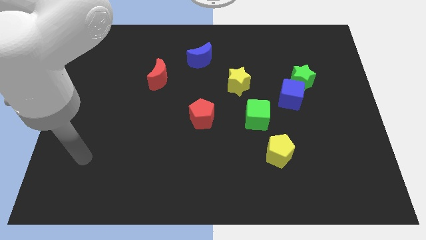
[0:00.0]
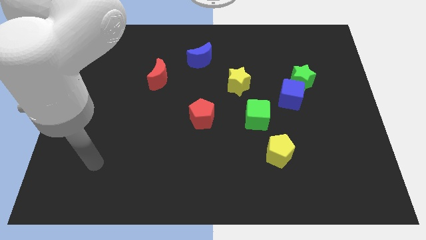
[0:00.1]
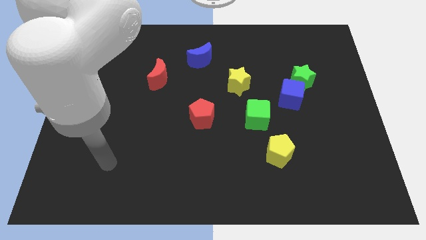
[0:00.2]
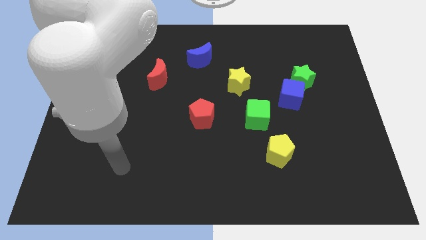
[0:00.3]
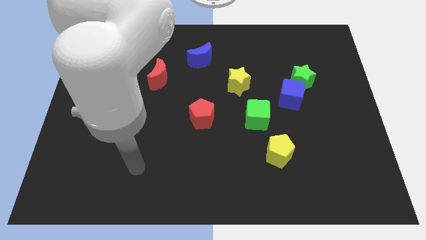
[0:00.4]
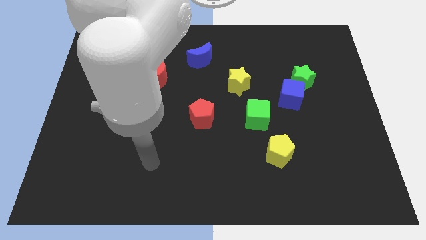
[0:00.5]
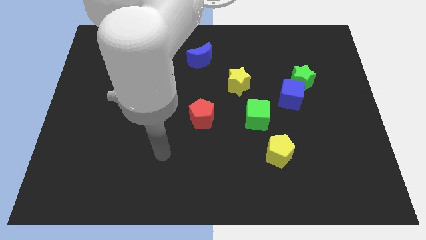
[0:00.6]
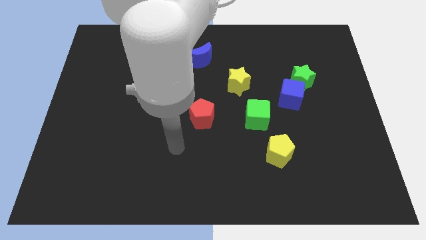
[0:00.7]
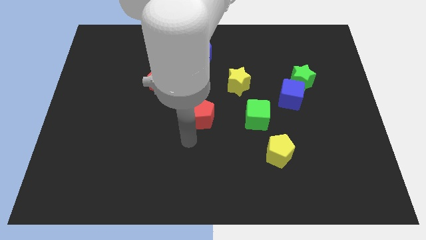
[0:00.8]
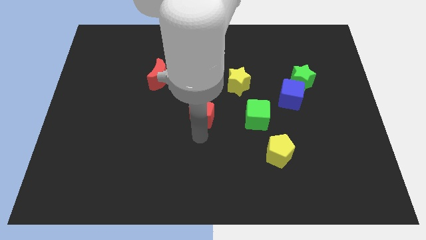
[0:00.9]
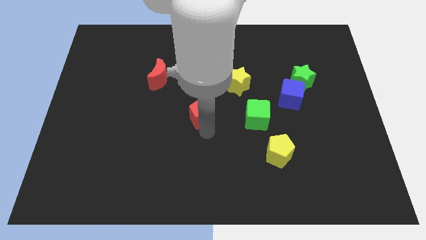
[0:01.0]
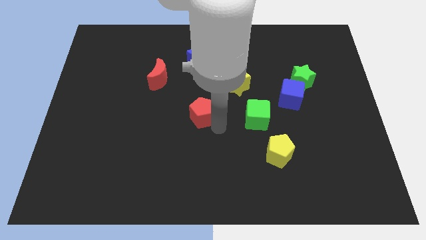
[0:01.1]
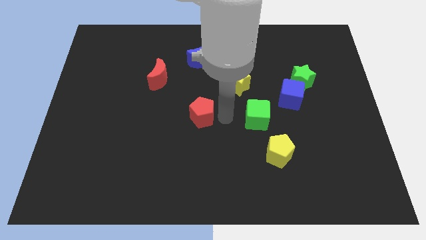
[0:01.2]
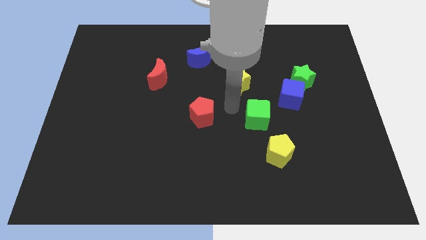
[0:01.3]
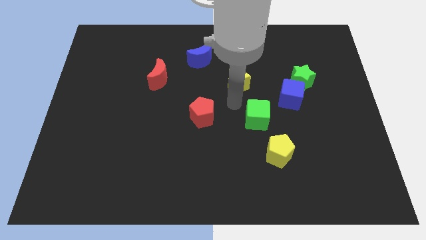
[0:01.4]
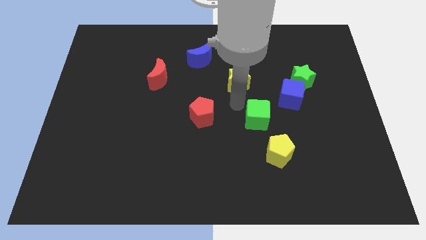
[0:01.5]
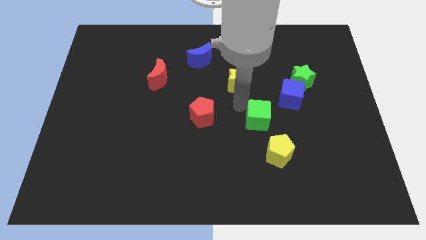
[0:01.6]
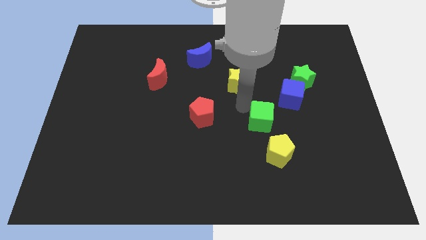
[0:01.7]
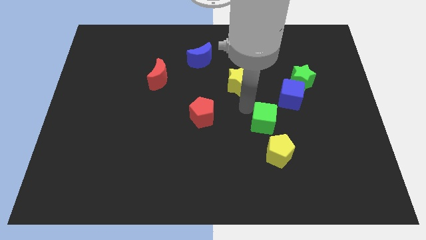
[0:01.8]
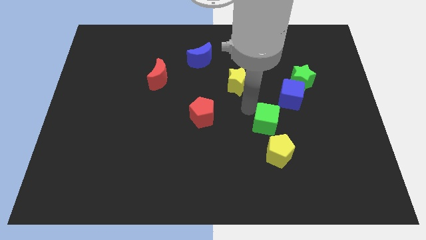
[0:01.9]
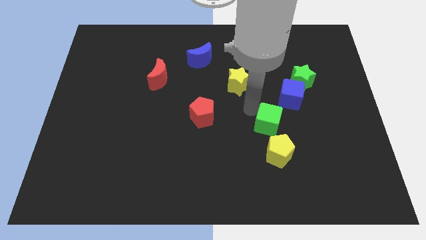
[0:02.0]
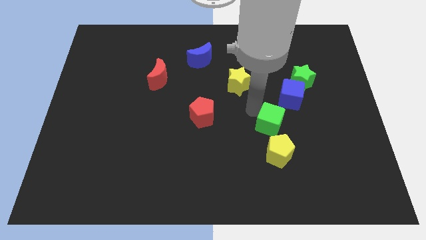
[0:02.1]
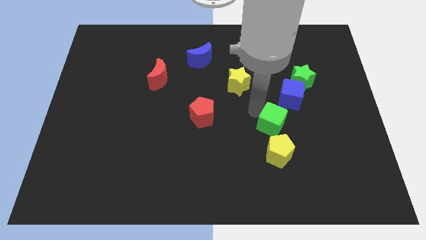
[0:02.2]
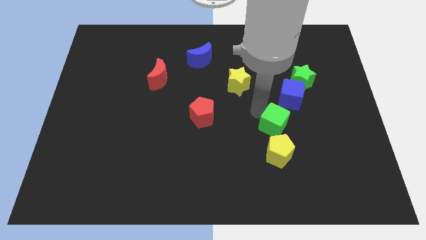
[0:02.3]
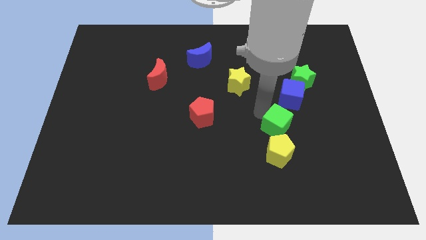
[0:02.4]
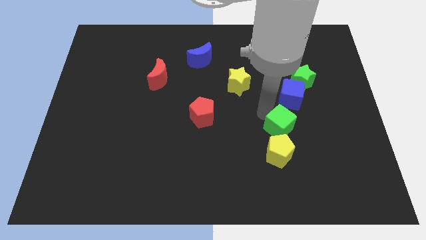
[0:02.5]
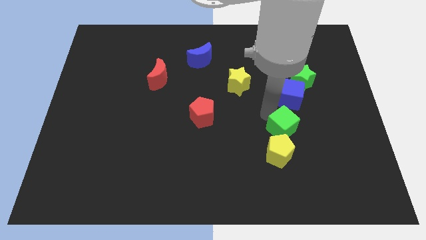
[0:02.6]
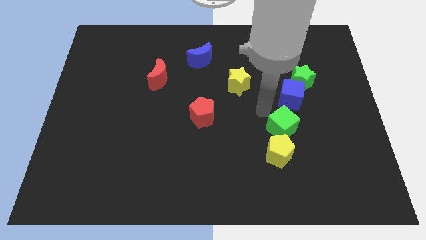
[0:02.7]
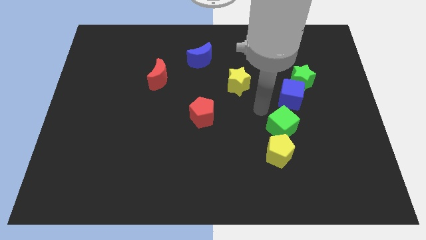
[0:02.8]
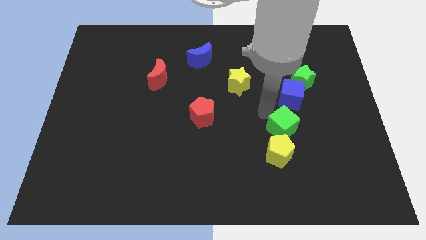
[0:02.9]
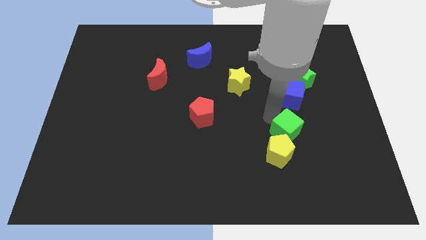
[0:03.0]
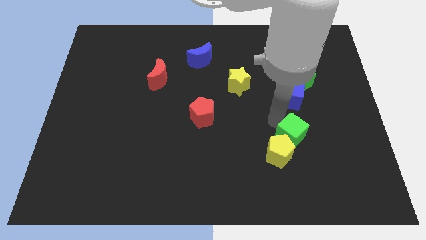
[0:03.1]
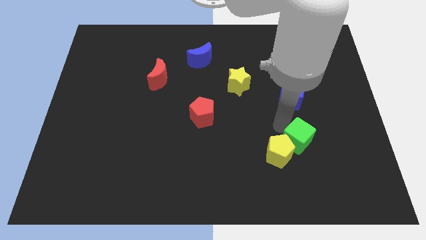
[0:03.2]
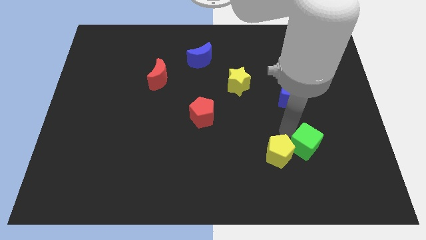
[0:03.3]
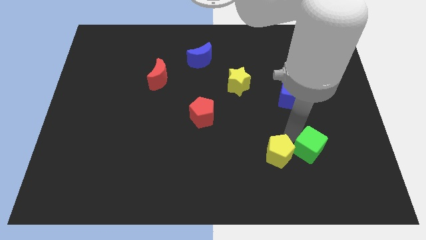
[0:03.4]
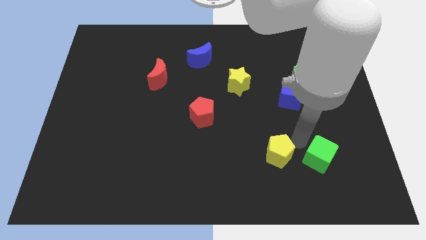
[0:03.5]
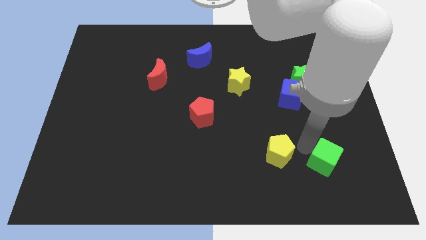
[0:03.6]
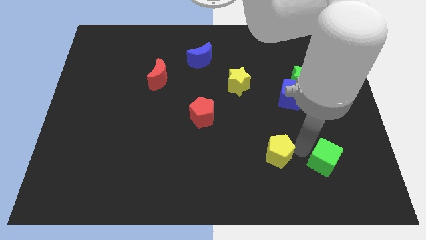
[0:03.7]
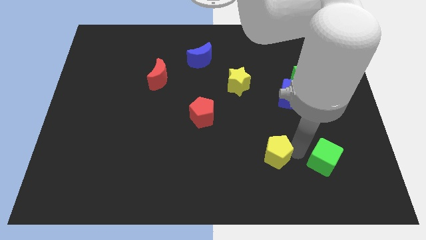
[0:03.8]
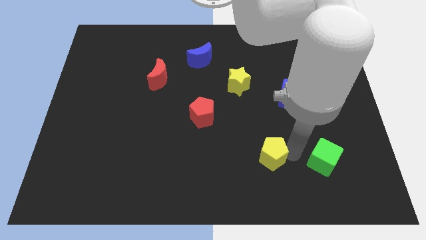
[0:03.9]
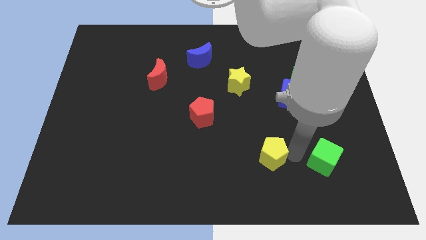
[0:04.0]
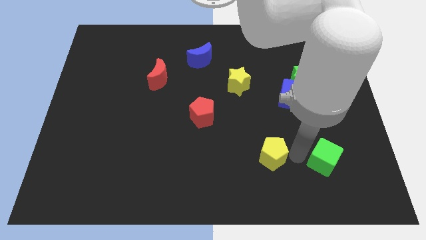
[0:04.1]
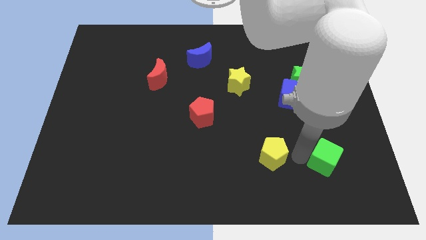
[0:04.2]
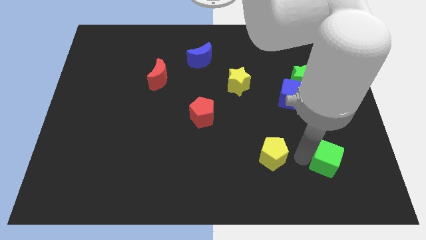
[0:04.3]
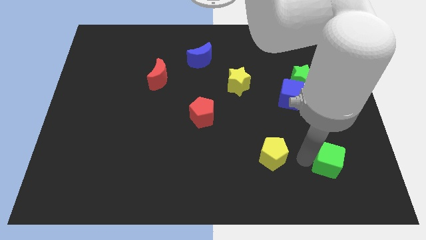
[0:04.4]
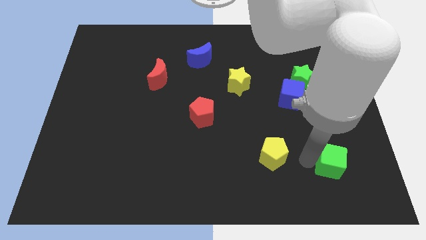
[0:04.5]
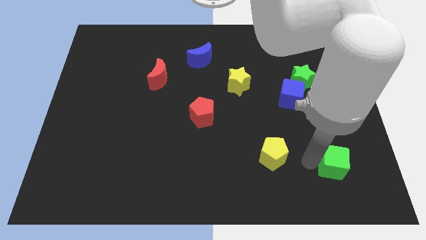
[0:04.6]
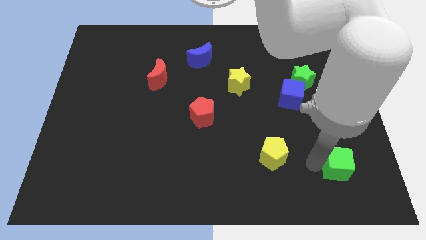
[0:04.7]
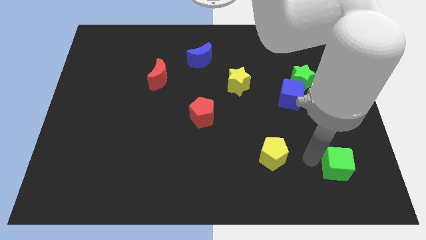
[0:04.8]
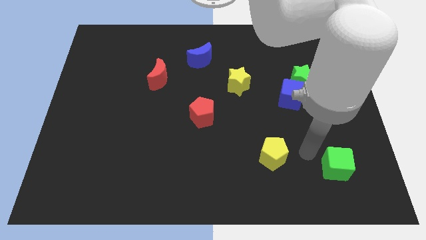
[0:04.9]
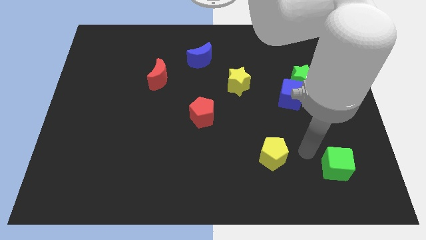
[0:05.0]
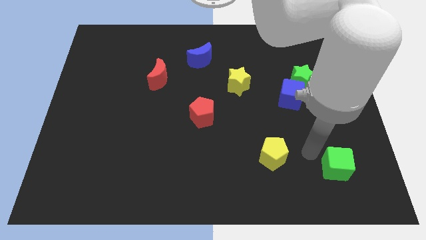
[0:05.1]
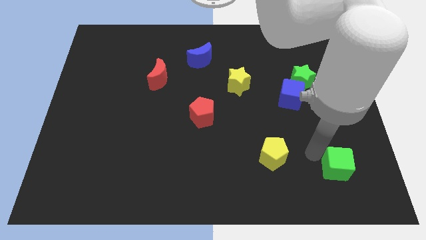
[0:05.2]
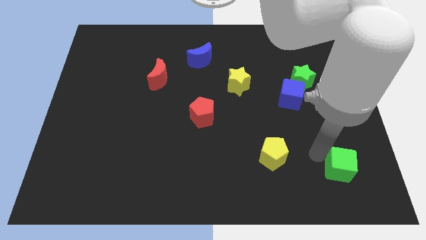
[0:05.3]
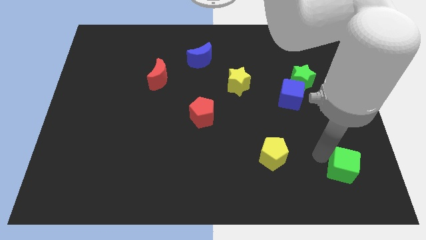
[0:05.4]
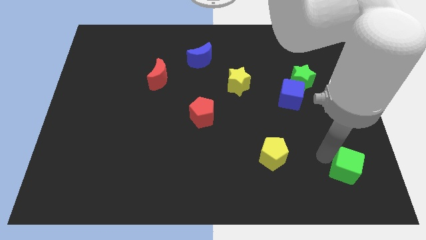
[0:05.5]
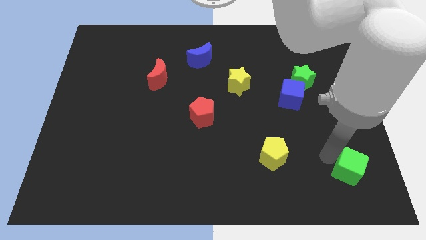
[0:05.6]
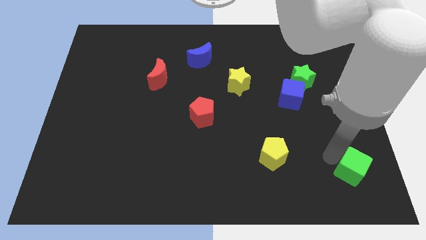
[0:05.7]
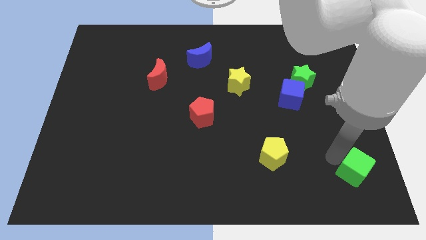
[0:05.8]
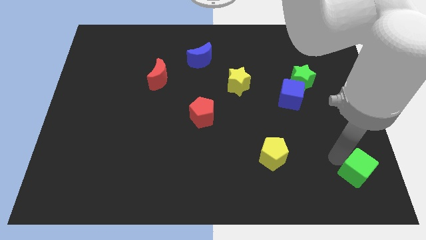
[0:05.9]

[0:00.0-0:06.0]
move the green cube to the bottom right corner

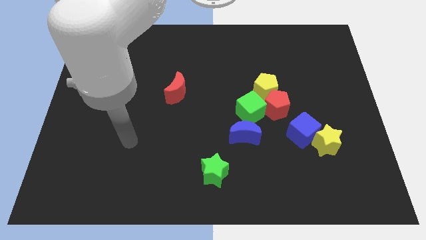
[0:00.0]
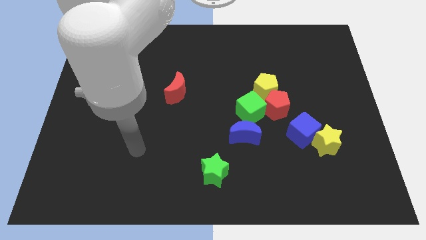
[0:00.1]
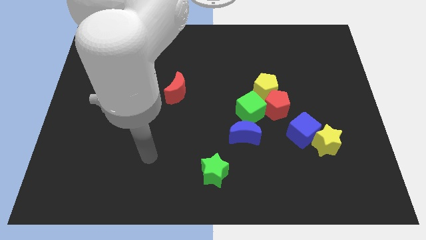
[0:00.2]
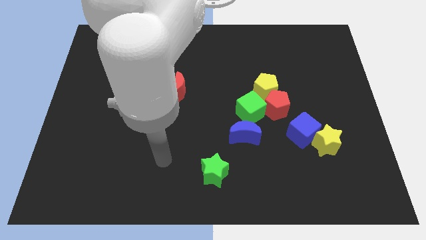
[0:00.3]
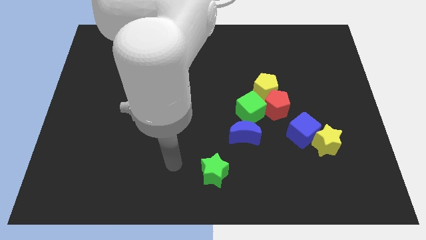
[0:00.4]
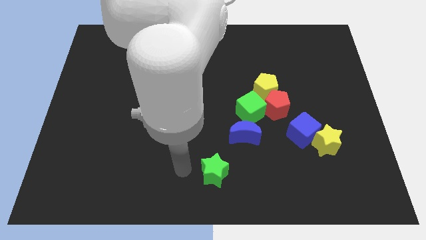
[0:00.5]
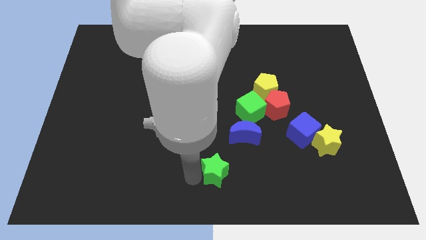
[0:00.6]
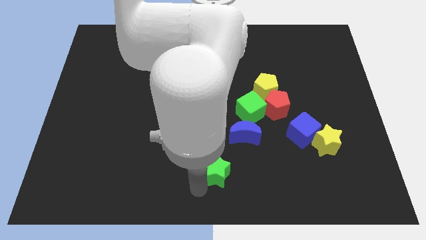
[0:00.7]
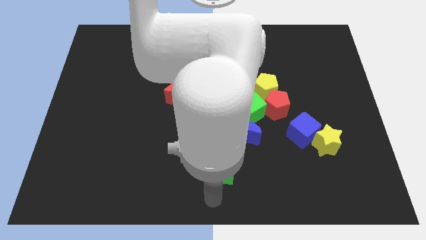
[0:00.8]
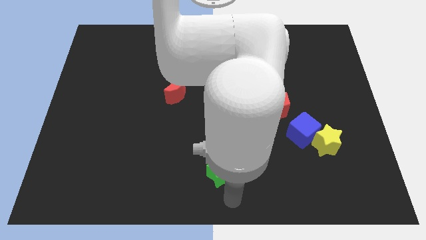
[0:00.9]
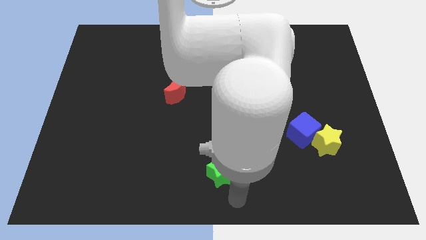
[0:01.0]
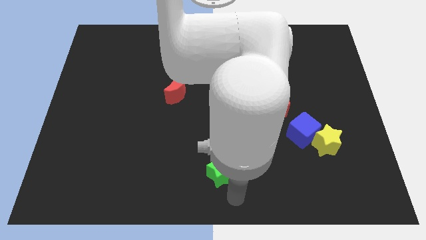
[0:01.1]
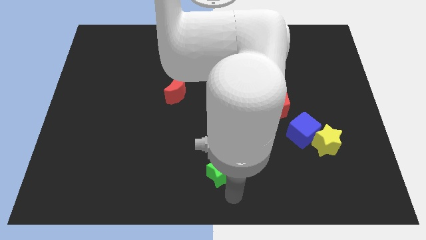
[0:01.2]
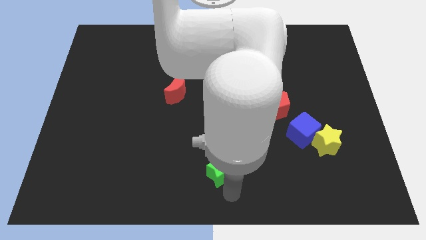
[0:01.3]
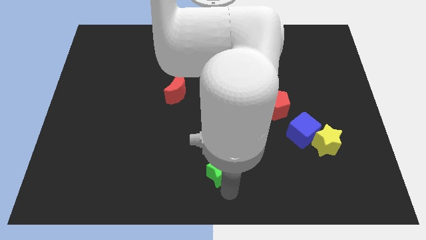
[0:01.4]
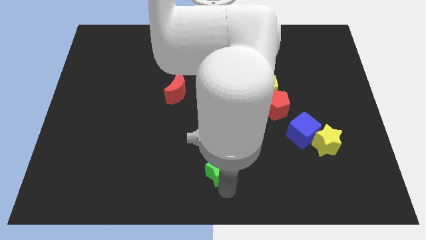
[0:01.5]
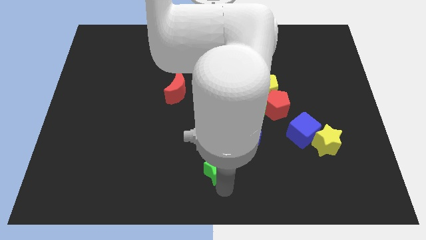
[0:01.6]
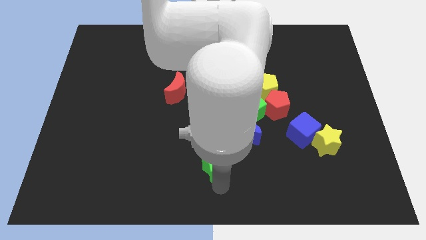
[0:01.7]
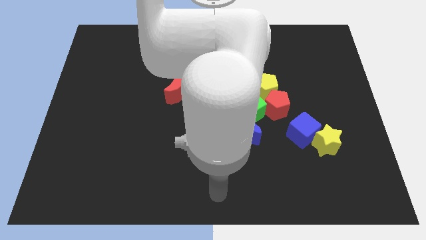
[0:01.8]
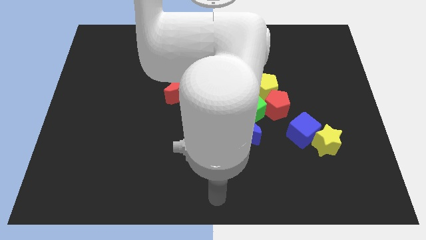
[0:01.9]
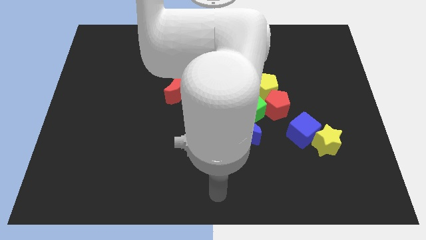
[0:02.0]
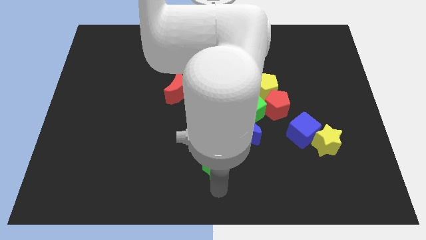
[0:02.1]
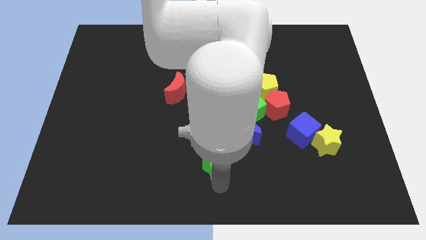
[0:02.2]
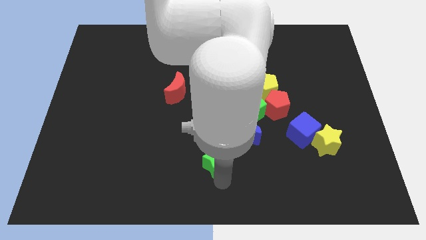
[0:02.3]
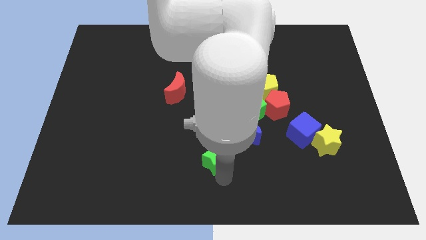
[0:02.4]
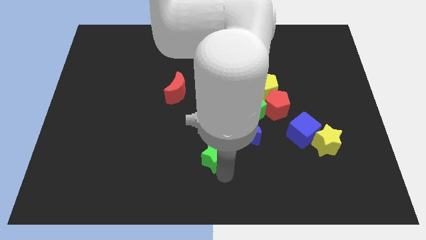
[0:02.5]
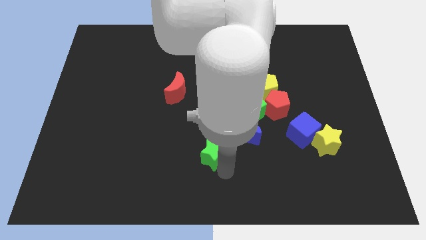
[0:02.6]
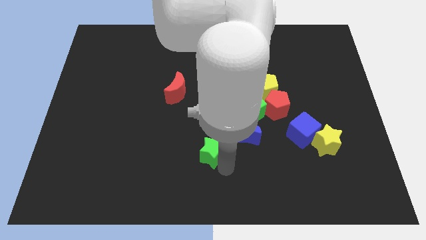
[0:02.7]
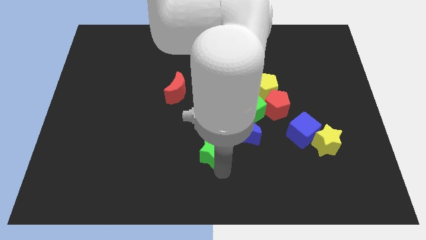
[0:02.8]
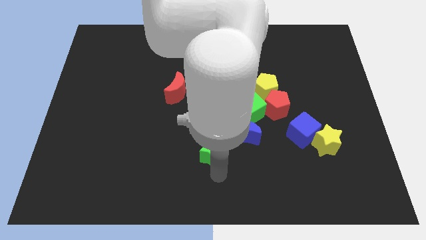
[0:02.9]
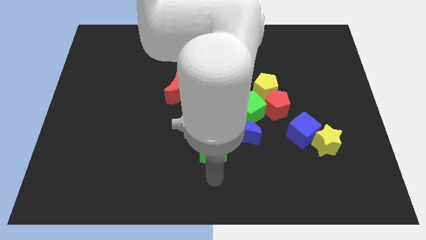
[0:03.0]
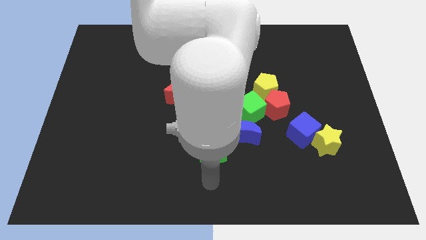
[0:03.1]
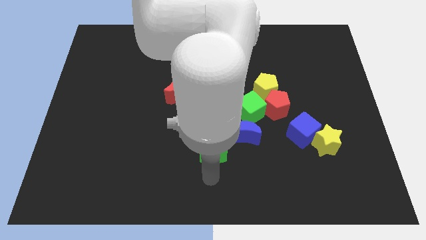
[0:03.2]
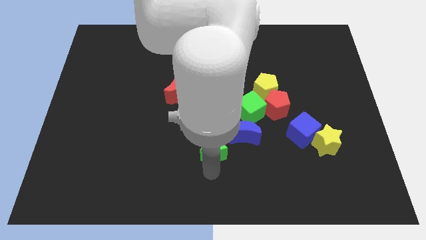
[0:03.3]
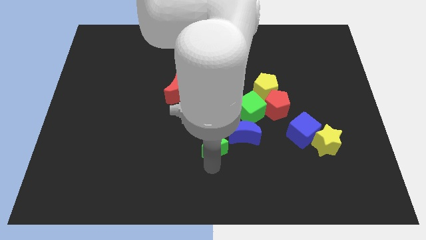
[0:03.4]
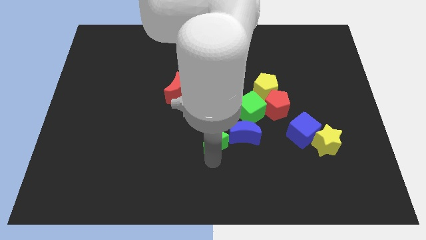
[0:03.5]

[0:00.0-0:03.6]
move the green star to the center
